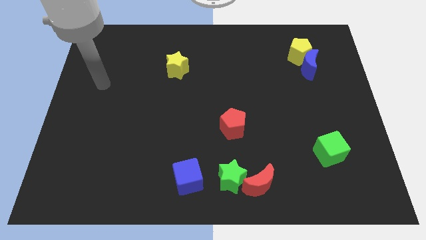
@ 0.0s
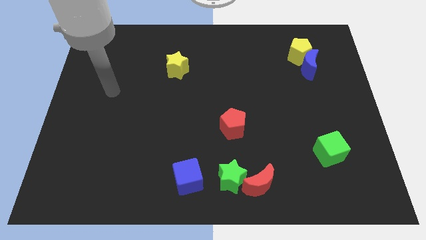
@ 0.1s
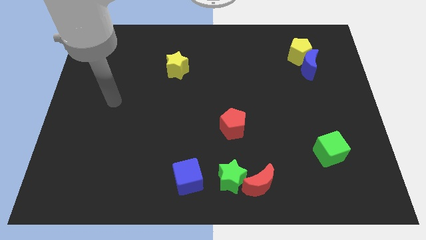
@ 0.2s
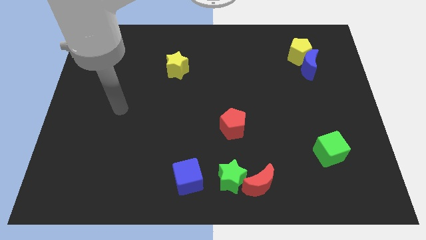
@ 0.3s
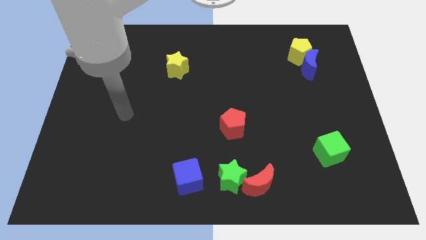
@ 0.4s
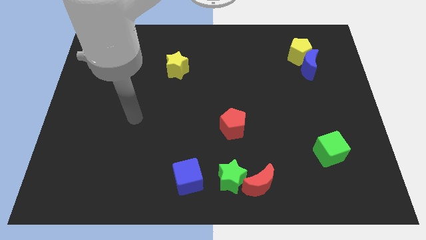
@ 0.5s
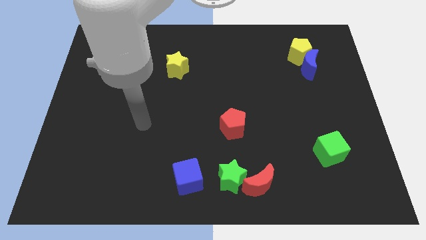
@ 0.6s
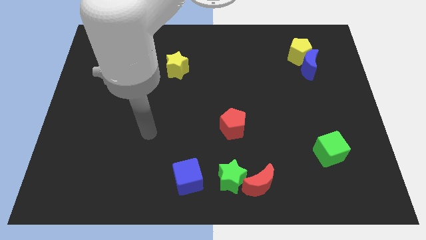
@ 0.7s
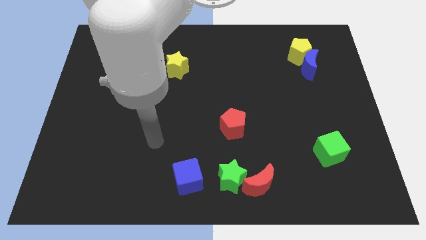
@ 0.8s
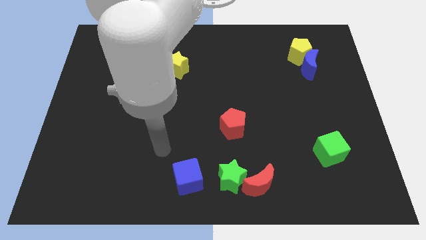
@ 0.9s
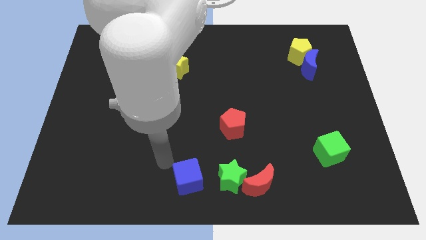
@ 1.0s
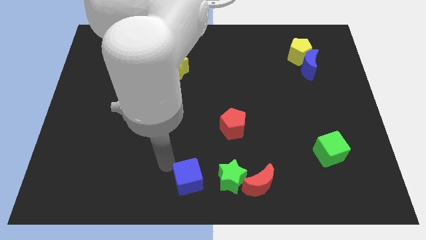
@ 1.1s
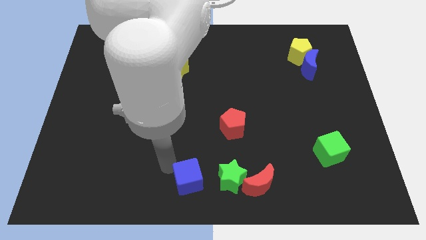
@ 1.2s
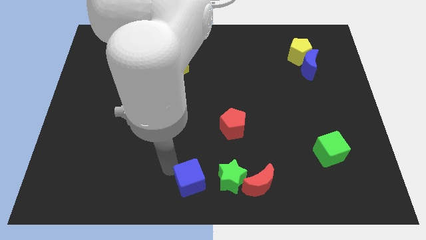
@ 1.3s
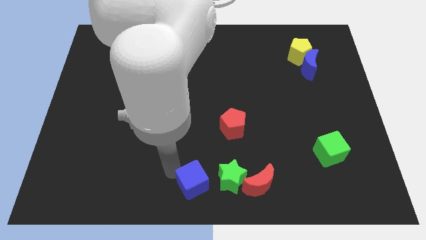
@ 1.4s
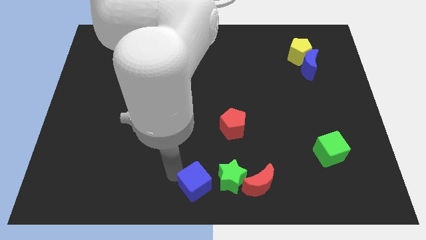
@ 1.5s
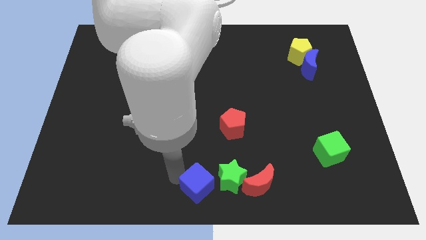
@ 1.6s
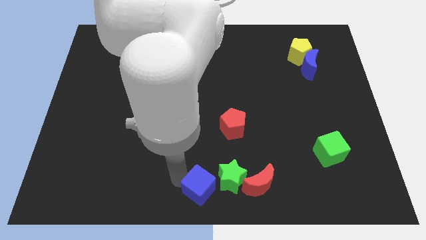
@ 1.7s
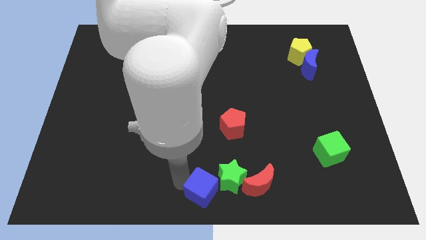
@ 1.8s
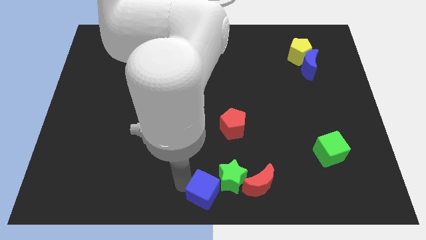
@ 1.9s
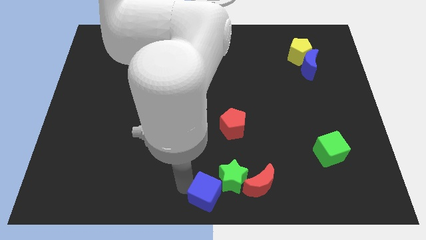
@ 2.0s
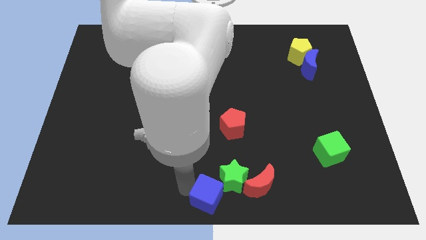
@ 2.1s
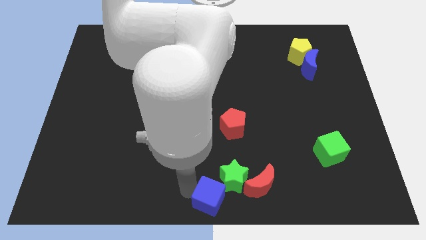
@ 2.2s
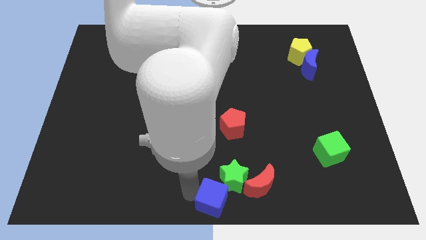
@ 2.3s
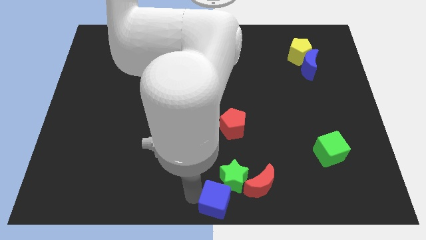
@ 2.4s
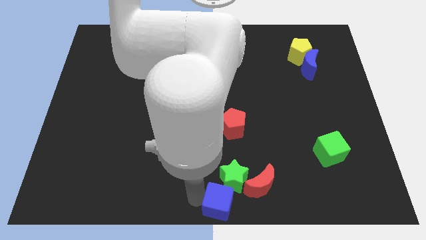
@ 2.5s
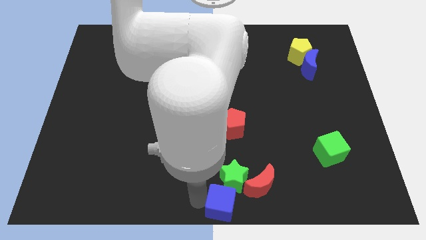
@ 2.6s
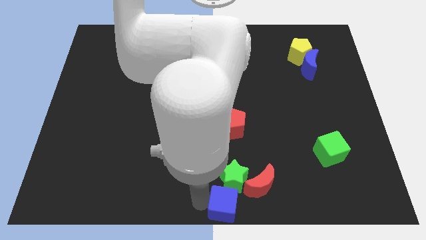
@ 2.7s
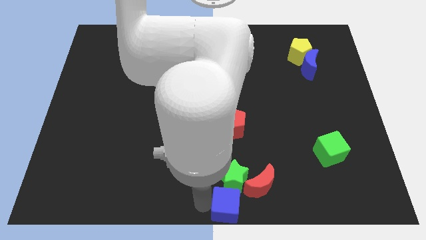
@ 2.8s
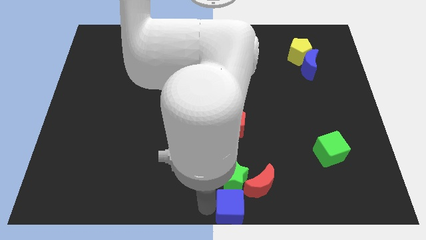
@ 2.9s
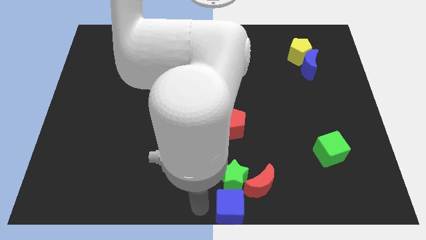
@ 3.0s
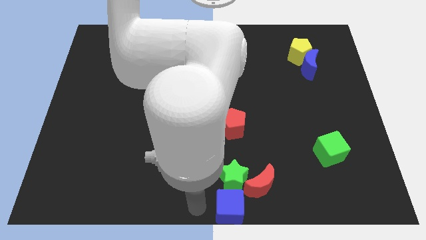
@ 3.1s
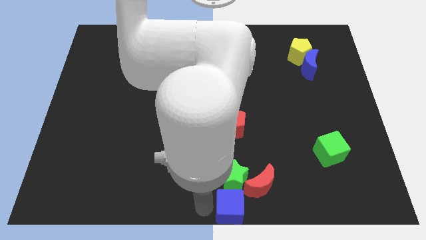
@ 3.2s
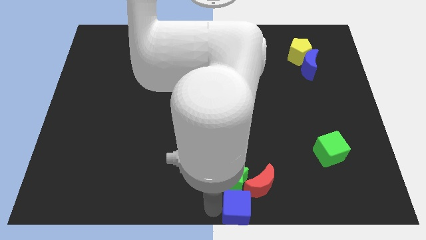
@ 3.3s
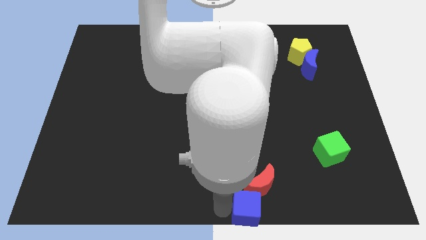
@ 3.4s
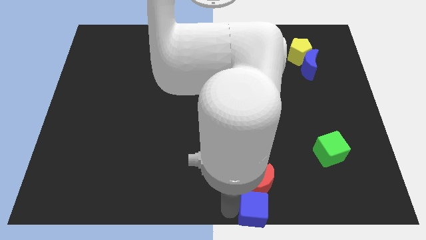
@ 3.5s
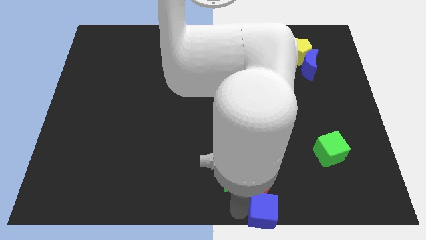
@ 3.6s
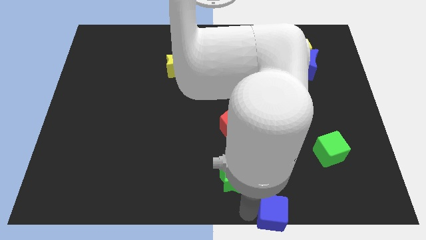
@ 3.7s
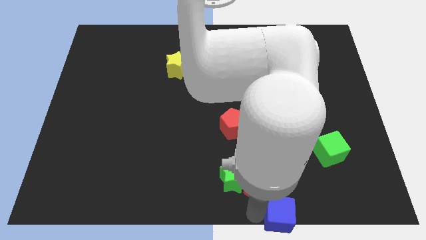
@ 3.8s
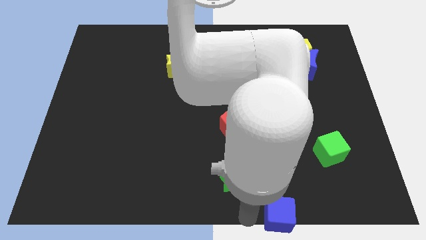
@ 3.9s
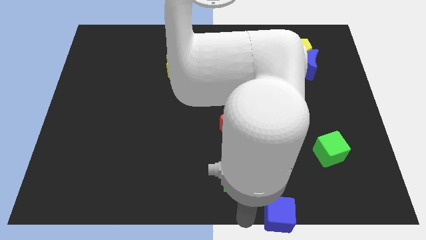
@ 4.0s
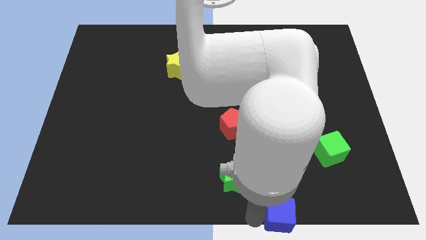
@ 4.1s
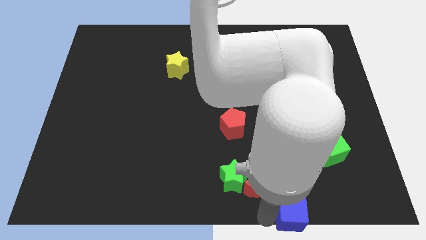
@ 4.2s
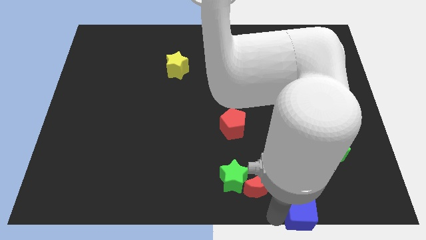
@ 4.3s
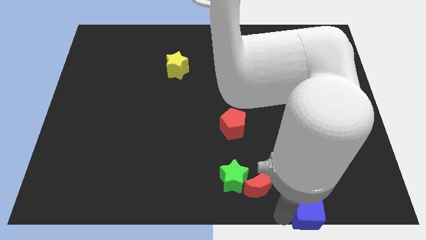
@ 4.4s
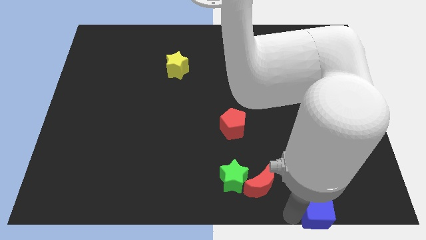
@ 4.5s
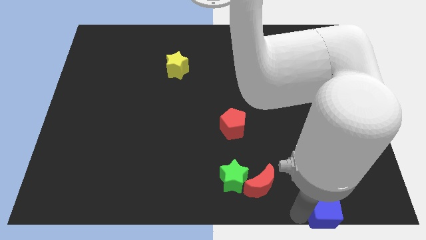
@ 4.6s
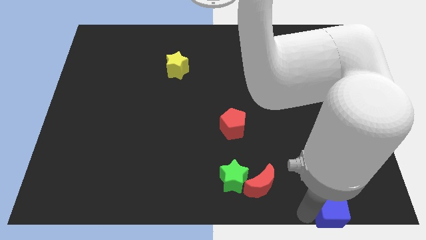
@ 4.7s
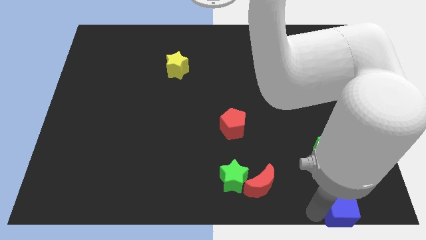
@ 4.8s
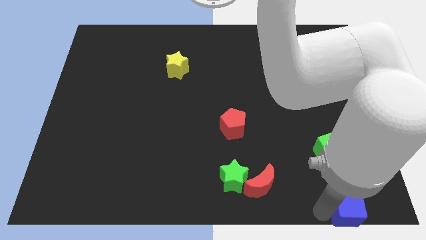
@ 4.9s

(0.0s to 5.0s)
move the blue cube to the bottom right of the board
